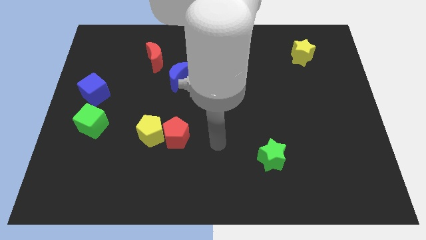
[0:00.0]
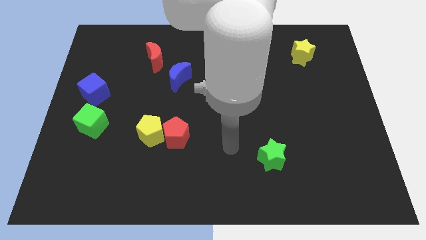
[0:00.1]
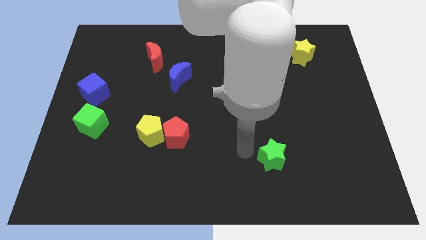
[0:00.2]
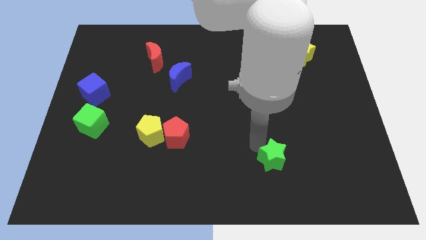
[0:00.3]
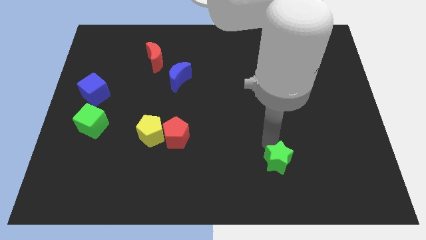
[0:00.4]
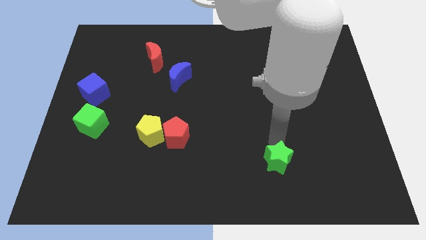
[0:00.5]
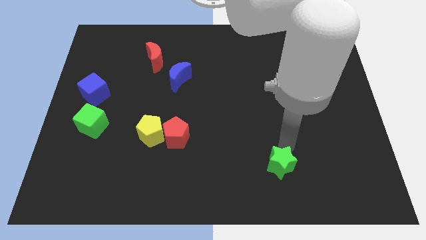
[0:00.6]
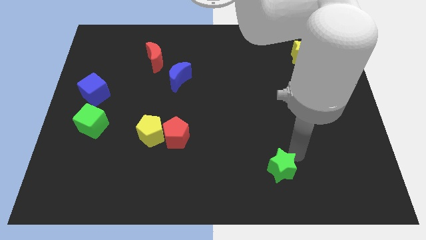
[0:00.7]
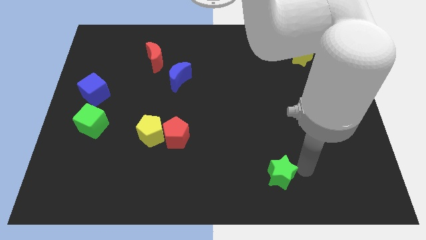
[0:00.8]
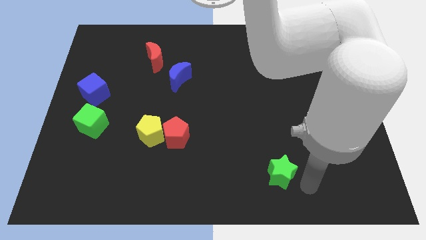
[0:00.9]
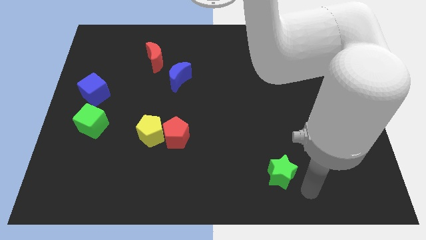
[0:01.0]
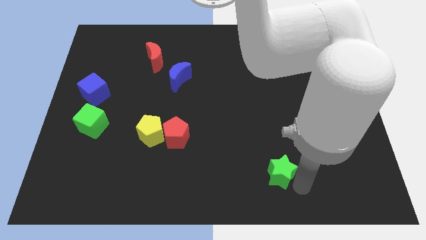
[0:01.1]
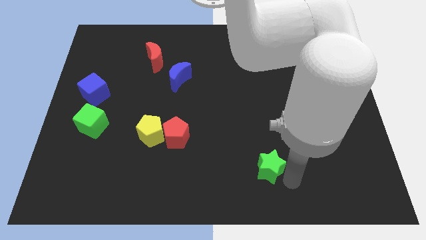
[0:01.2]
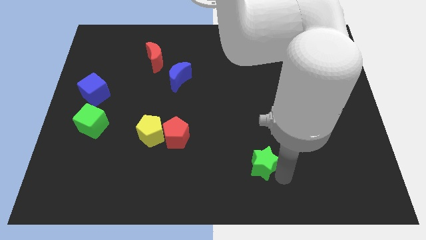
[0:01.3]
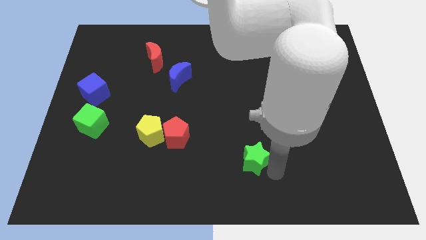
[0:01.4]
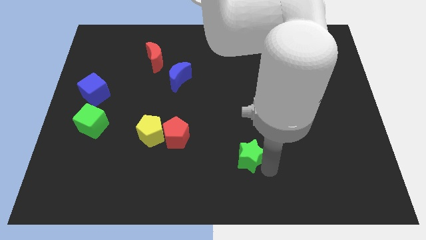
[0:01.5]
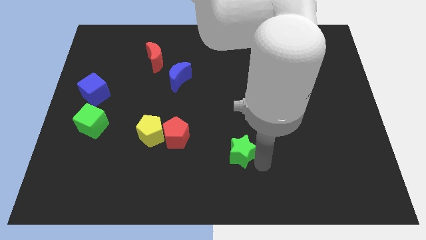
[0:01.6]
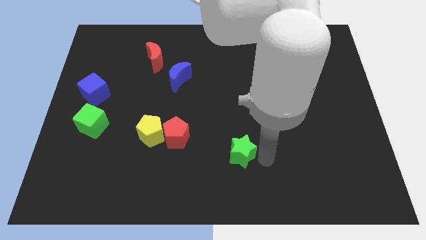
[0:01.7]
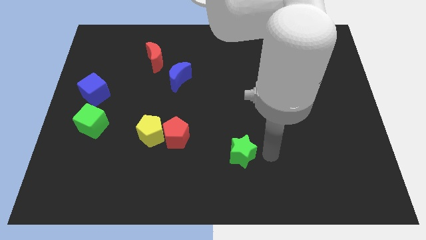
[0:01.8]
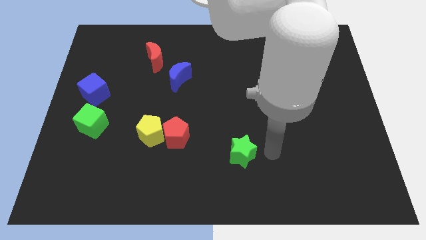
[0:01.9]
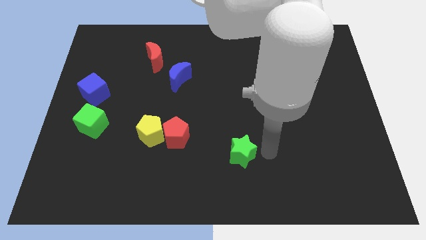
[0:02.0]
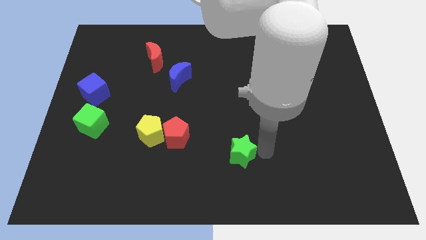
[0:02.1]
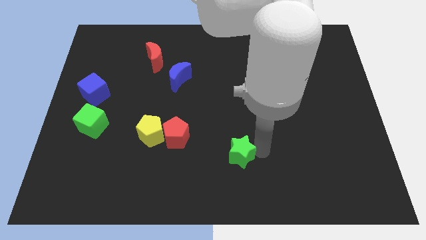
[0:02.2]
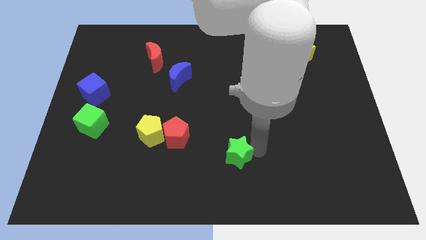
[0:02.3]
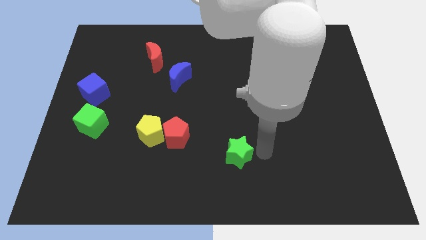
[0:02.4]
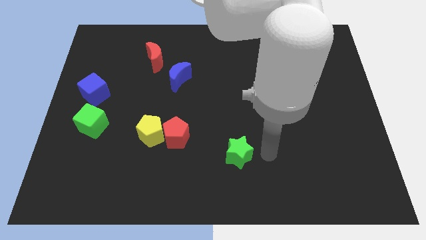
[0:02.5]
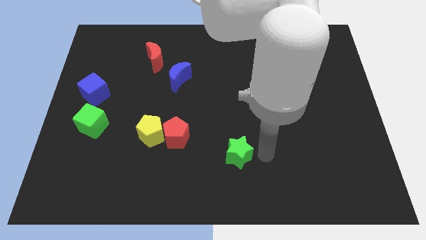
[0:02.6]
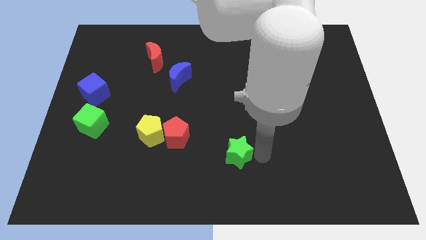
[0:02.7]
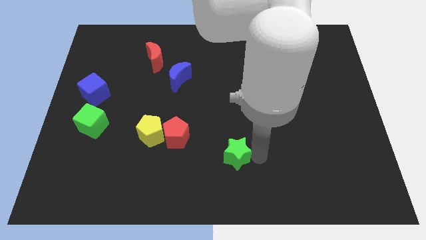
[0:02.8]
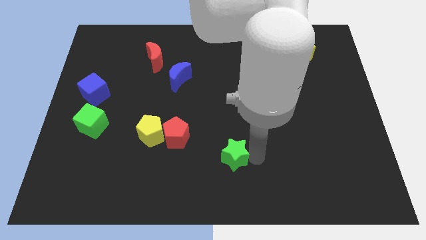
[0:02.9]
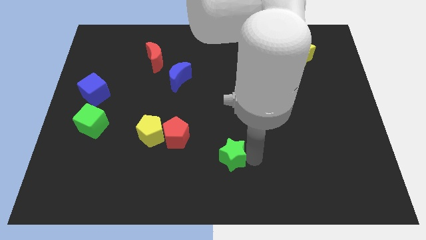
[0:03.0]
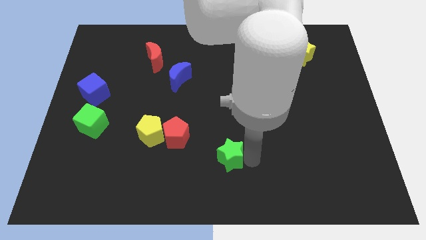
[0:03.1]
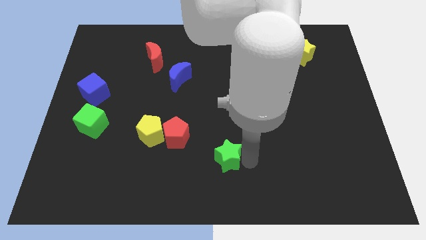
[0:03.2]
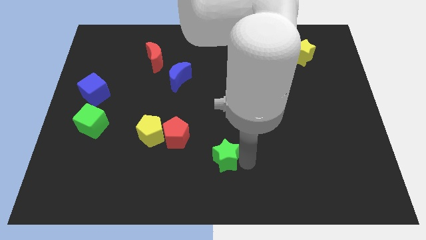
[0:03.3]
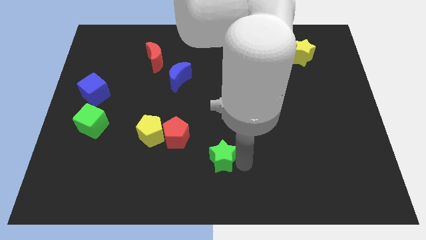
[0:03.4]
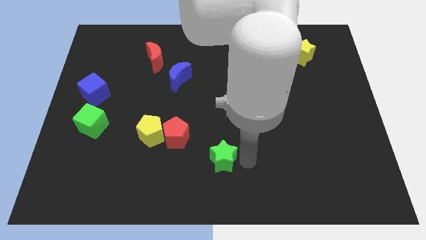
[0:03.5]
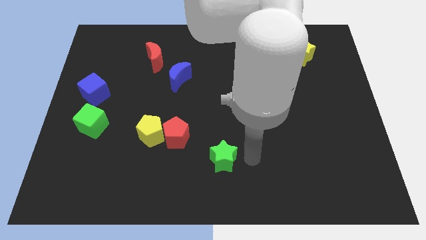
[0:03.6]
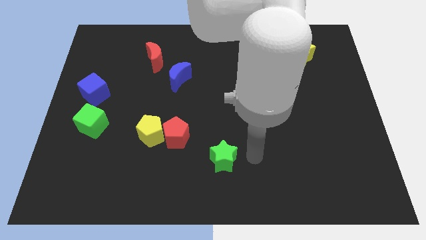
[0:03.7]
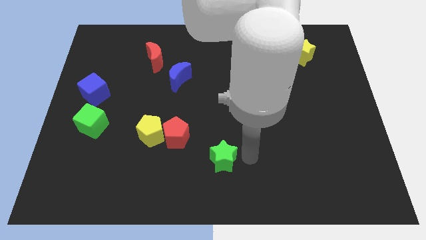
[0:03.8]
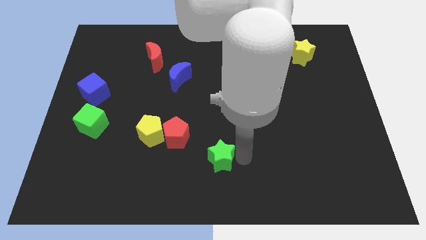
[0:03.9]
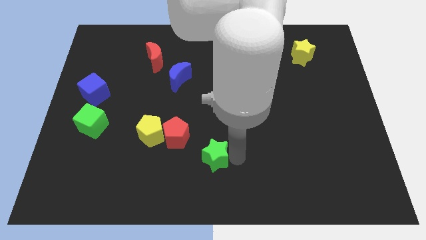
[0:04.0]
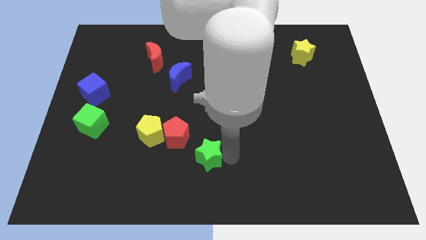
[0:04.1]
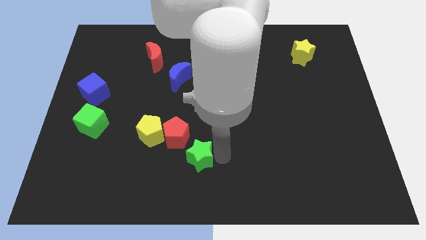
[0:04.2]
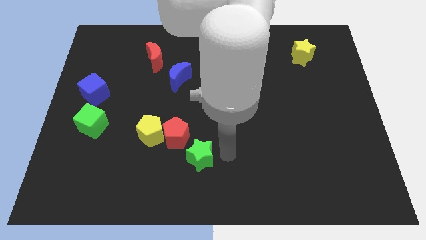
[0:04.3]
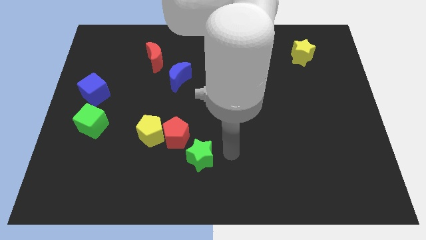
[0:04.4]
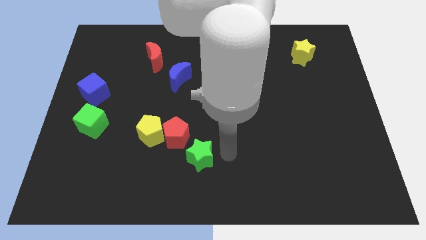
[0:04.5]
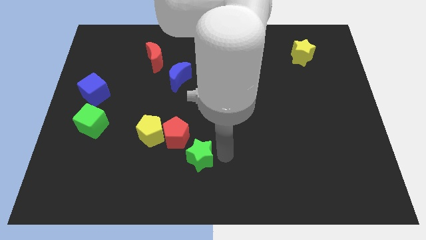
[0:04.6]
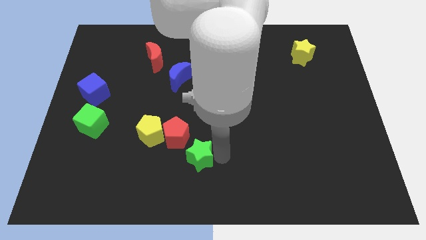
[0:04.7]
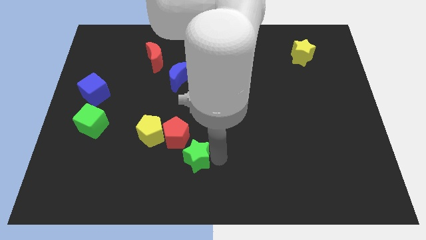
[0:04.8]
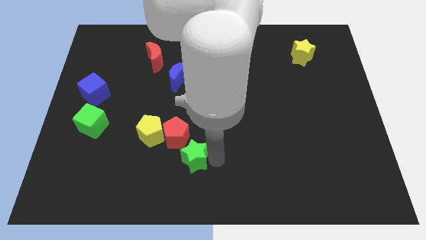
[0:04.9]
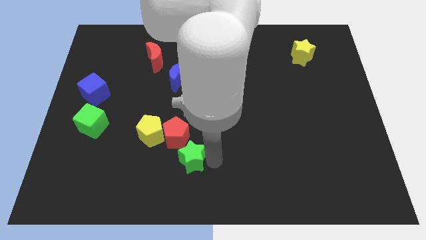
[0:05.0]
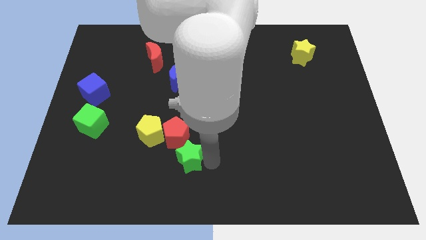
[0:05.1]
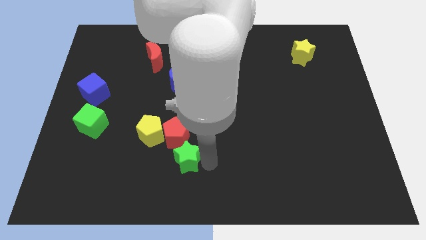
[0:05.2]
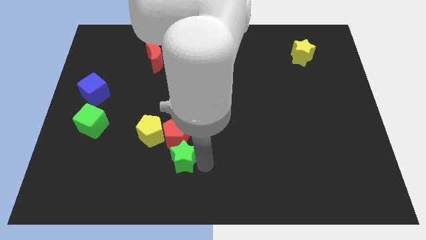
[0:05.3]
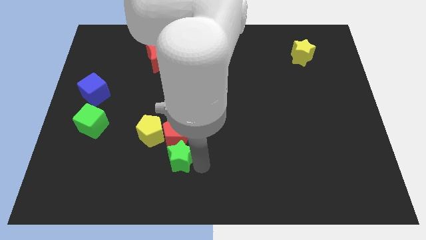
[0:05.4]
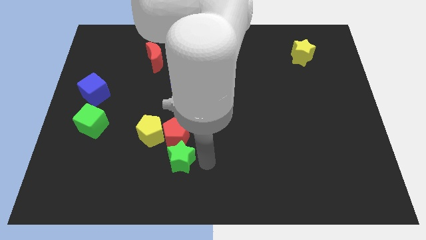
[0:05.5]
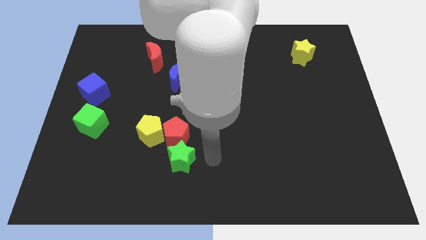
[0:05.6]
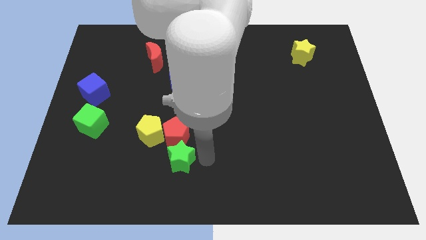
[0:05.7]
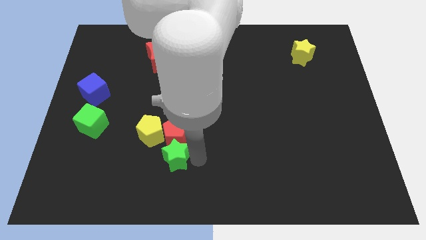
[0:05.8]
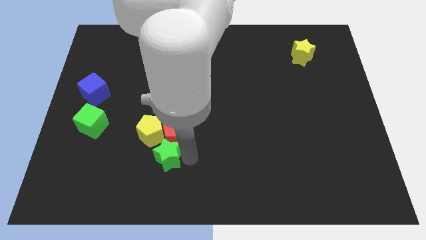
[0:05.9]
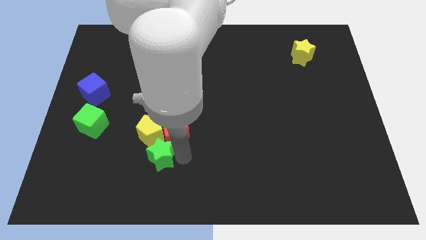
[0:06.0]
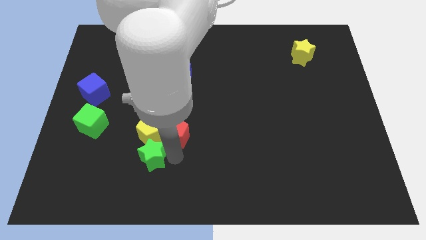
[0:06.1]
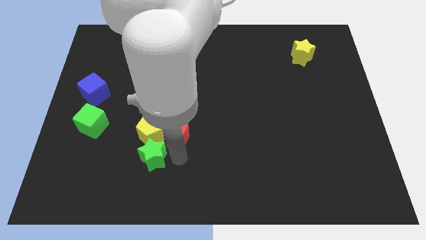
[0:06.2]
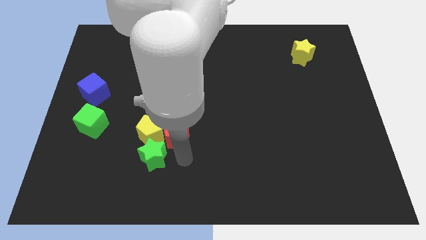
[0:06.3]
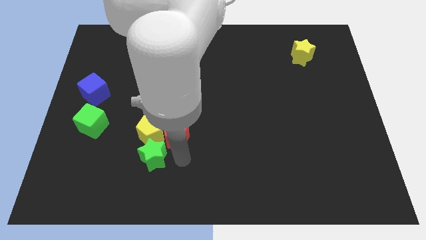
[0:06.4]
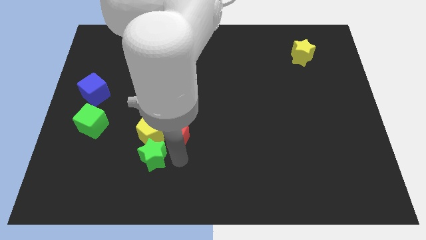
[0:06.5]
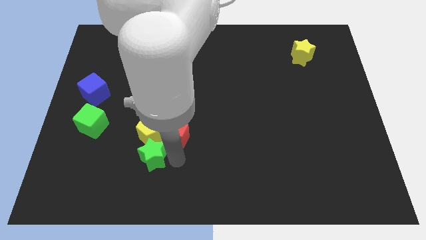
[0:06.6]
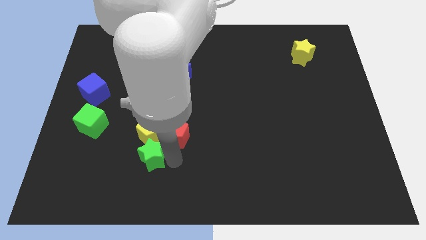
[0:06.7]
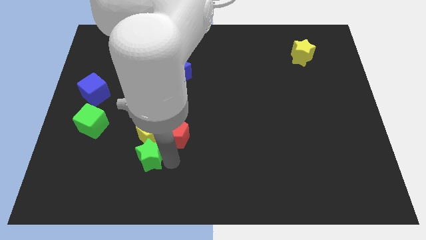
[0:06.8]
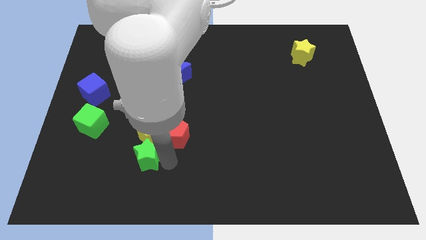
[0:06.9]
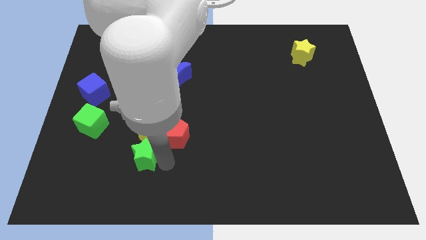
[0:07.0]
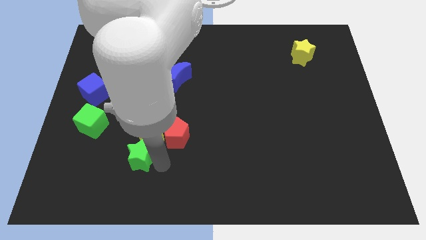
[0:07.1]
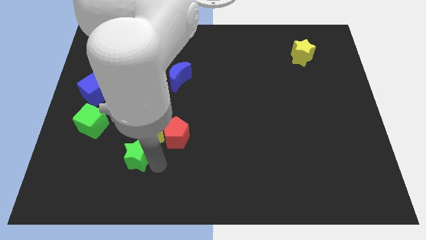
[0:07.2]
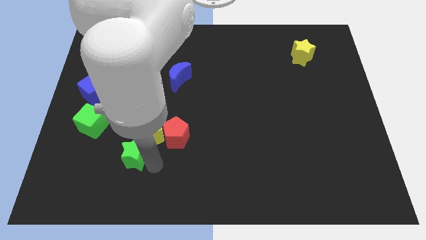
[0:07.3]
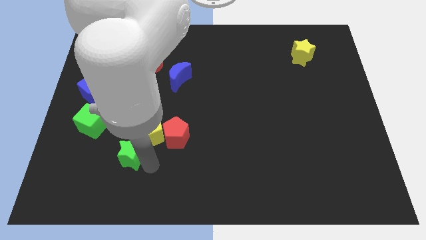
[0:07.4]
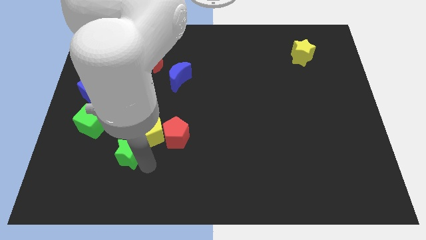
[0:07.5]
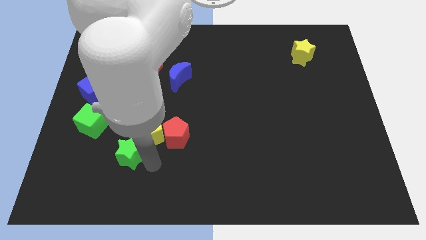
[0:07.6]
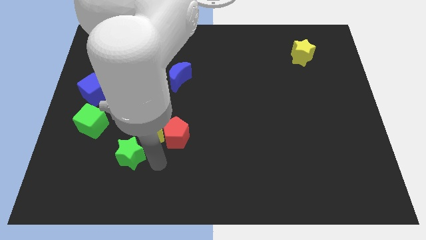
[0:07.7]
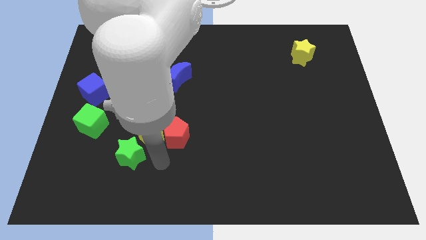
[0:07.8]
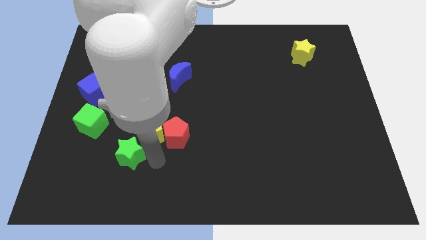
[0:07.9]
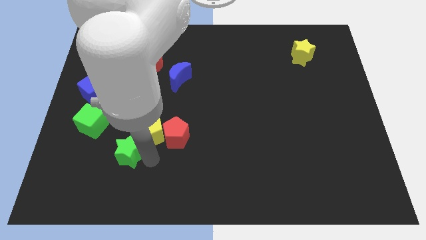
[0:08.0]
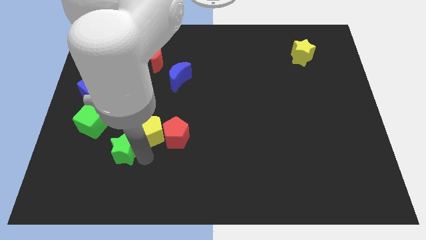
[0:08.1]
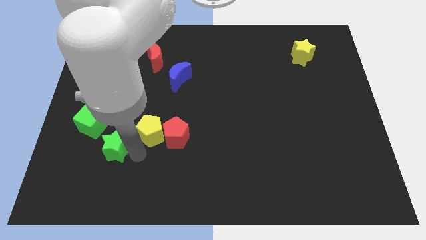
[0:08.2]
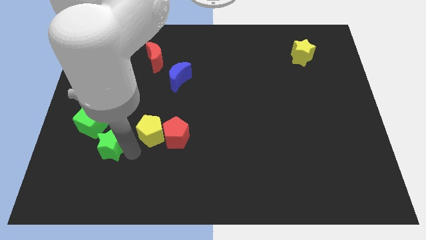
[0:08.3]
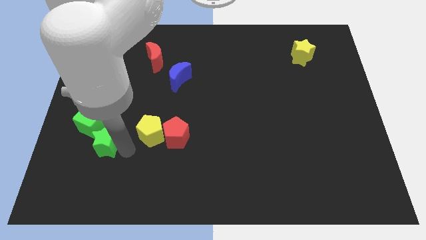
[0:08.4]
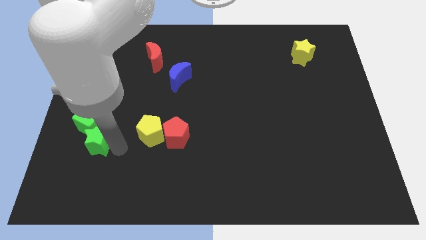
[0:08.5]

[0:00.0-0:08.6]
slide the green star to the bottom side of the blue cube
